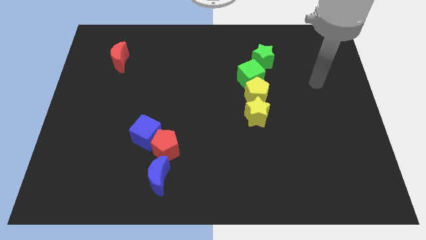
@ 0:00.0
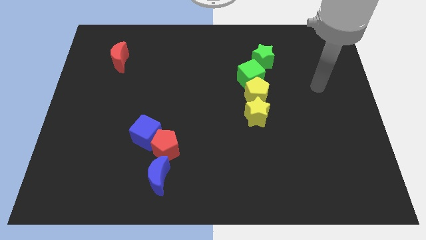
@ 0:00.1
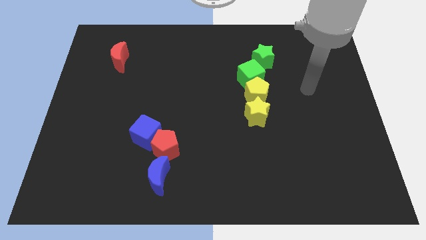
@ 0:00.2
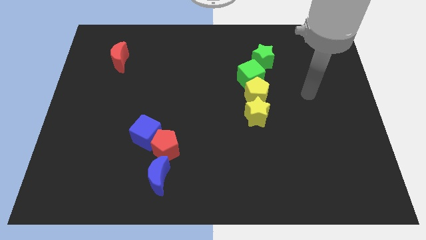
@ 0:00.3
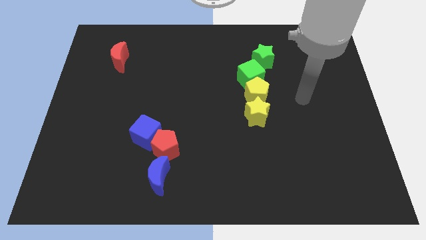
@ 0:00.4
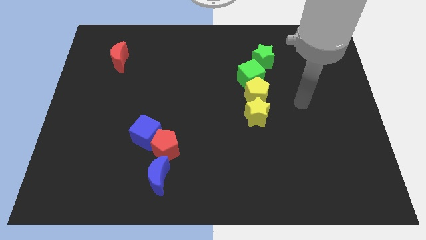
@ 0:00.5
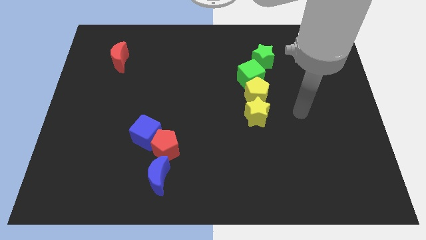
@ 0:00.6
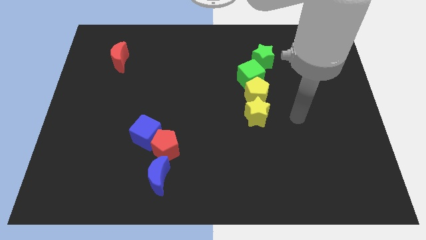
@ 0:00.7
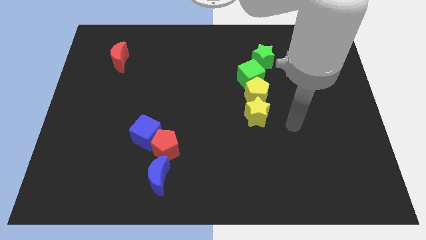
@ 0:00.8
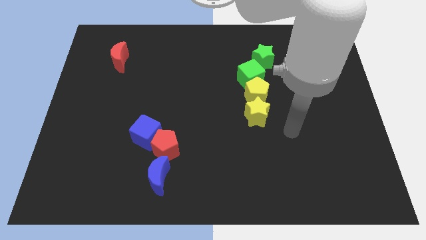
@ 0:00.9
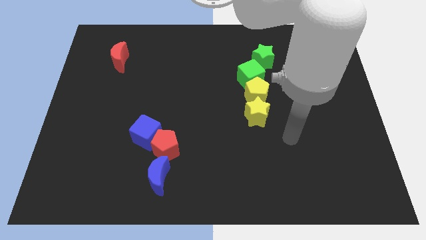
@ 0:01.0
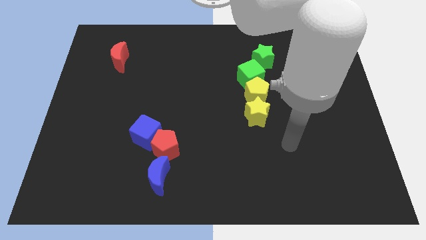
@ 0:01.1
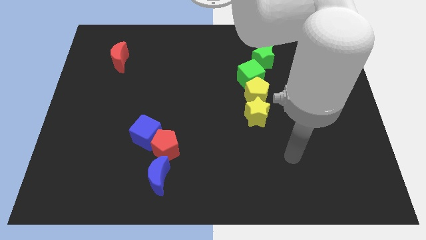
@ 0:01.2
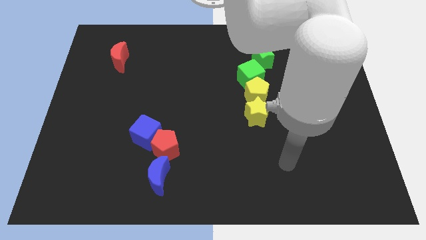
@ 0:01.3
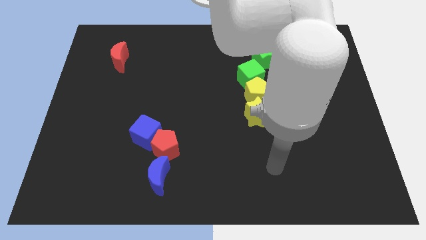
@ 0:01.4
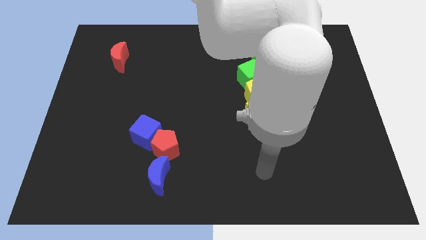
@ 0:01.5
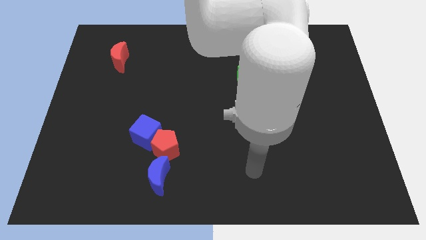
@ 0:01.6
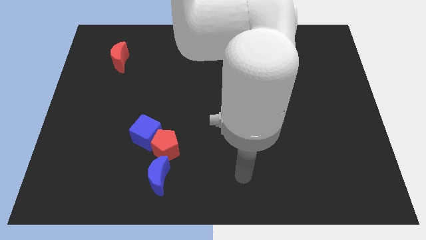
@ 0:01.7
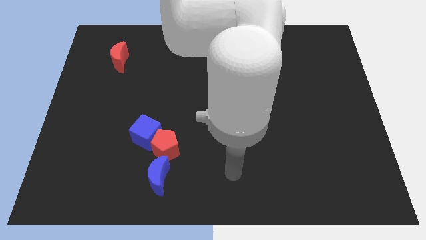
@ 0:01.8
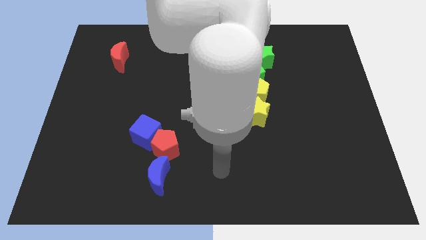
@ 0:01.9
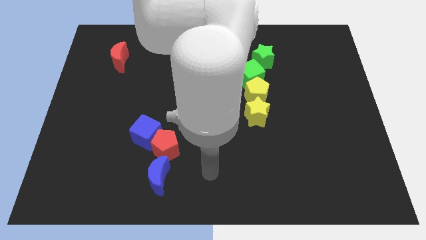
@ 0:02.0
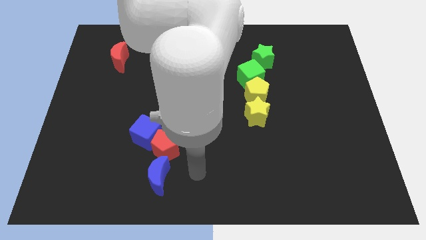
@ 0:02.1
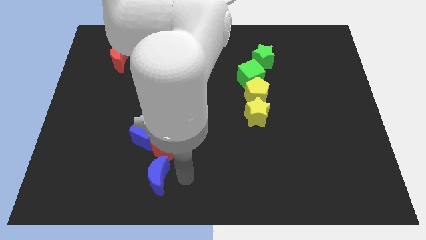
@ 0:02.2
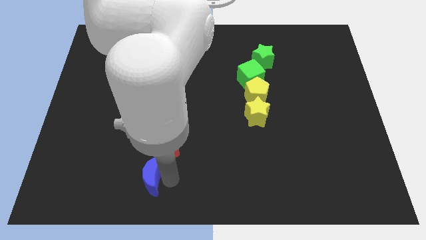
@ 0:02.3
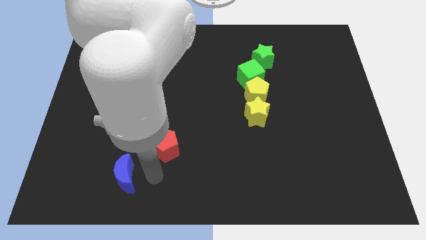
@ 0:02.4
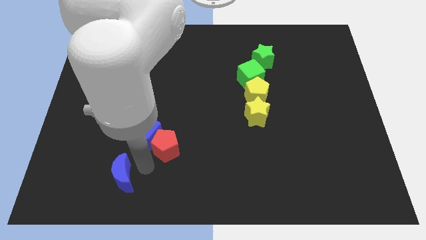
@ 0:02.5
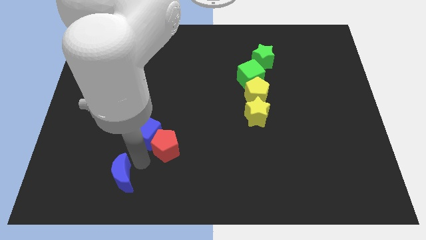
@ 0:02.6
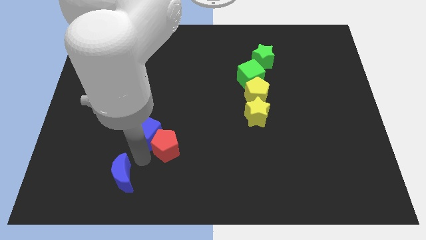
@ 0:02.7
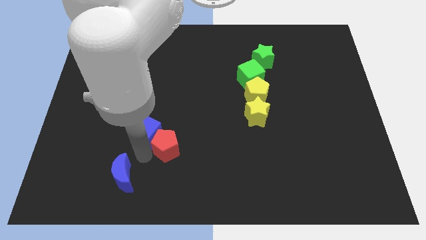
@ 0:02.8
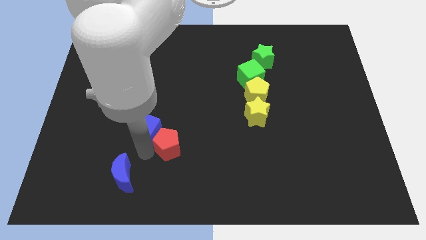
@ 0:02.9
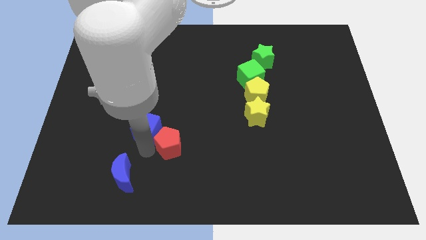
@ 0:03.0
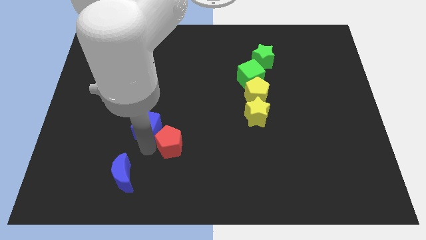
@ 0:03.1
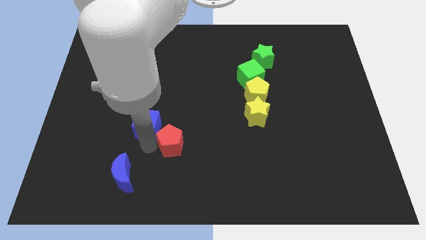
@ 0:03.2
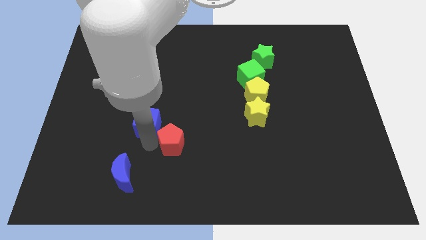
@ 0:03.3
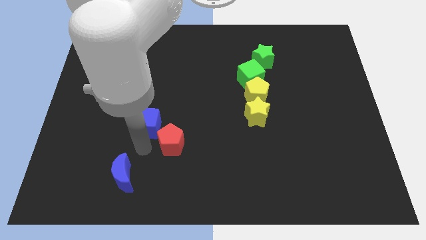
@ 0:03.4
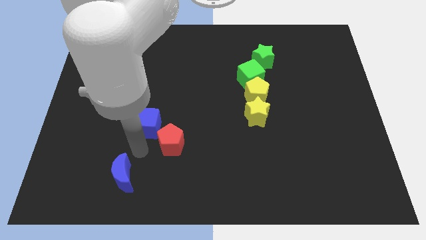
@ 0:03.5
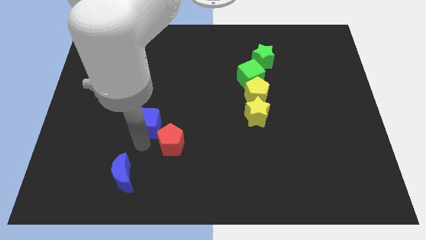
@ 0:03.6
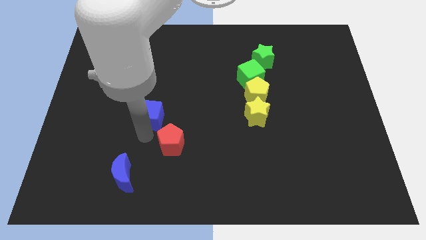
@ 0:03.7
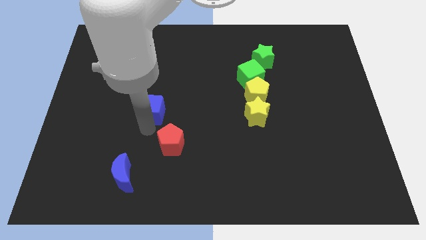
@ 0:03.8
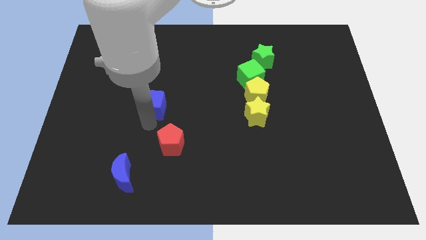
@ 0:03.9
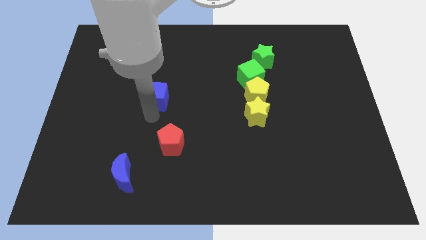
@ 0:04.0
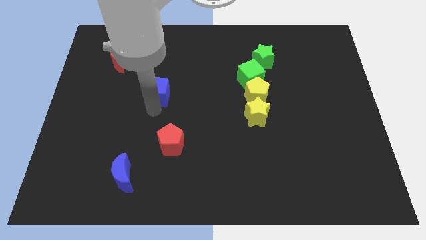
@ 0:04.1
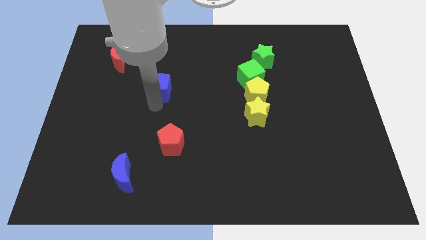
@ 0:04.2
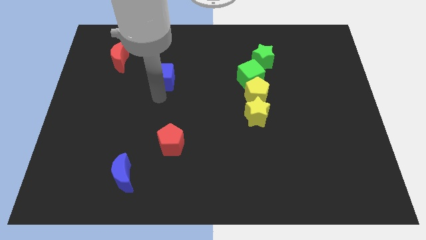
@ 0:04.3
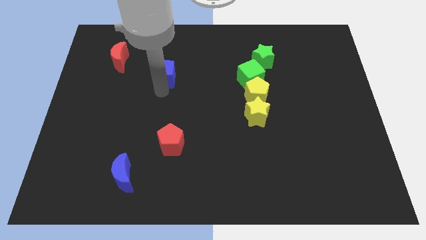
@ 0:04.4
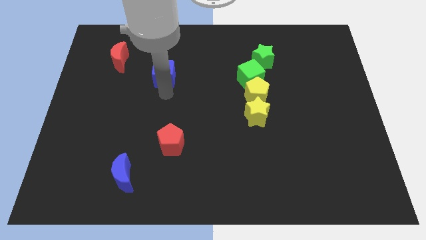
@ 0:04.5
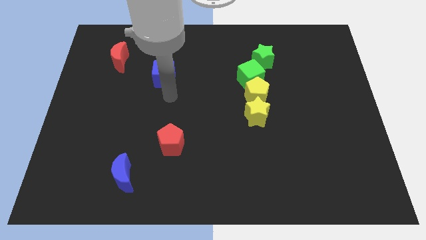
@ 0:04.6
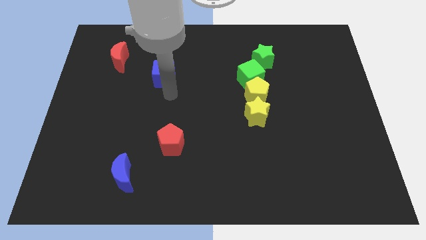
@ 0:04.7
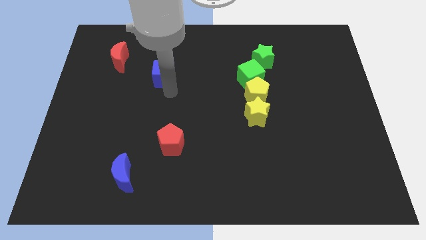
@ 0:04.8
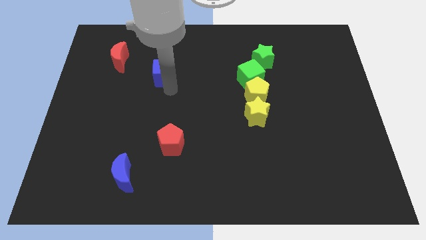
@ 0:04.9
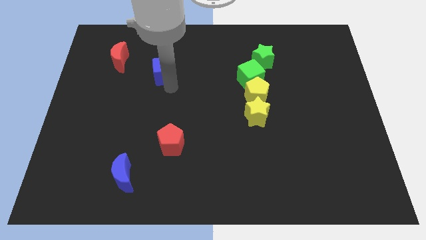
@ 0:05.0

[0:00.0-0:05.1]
move the blue cube just right of the red moon
